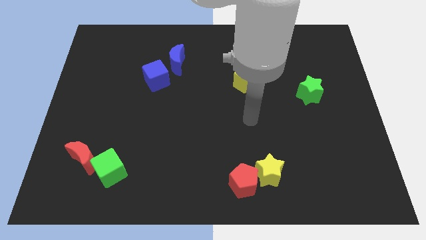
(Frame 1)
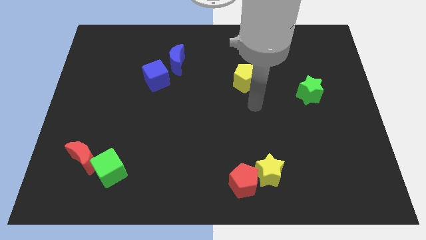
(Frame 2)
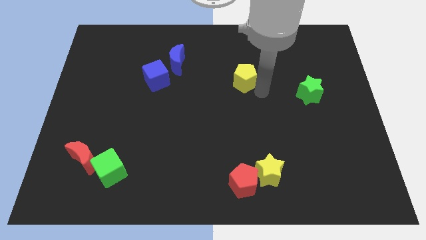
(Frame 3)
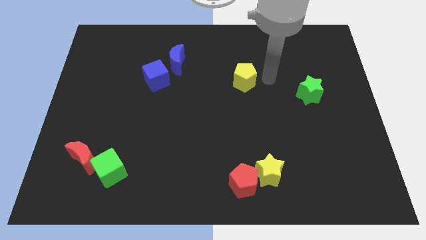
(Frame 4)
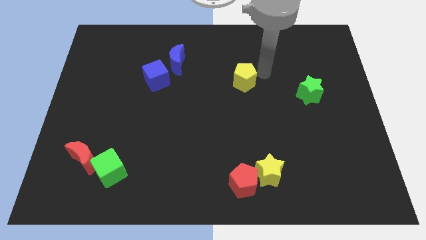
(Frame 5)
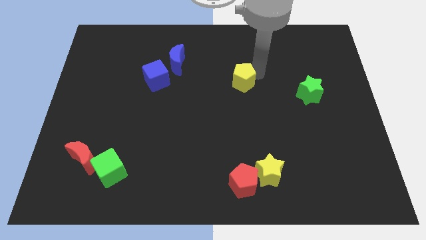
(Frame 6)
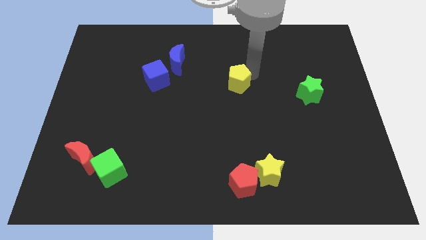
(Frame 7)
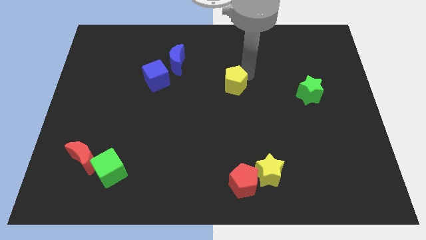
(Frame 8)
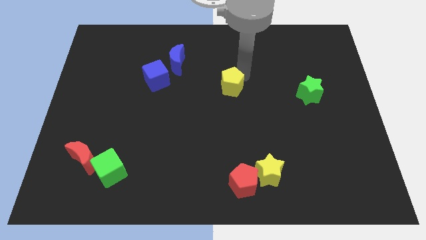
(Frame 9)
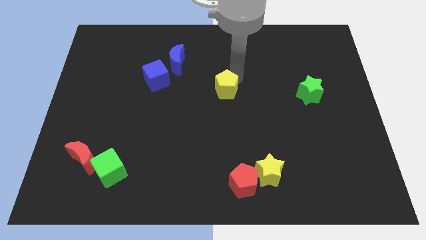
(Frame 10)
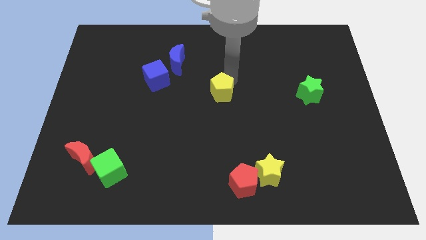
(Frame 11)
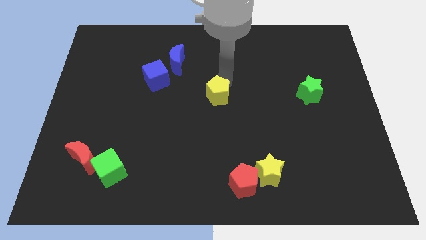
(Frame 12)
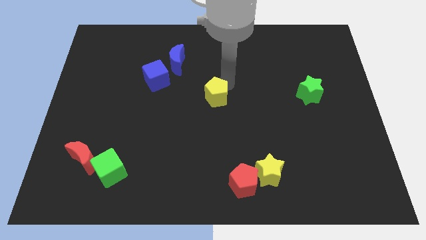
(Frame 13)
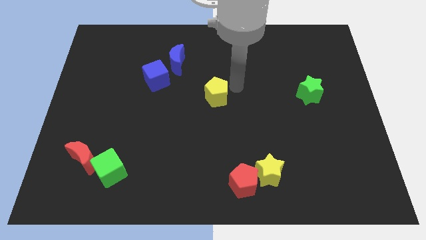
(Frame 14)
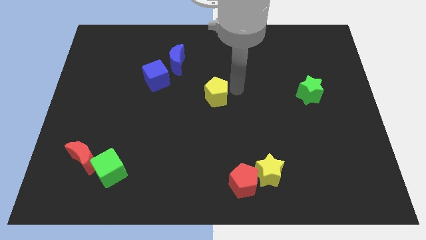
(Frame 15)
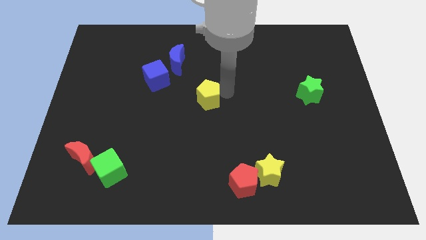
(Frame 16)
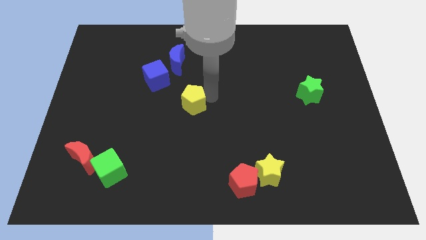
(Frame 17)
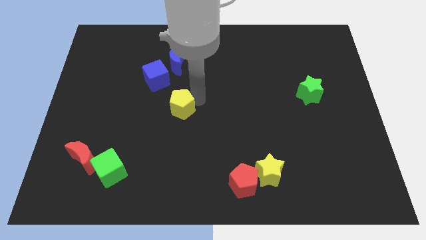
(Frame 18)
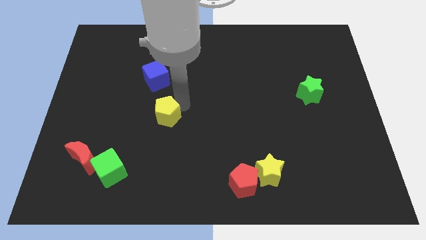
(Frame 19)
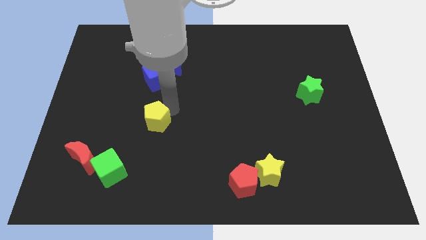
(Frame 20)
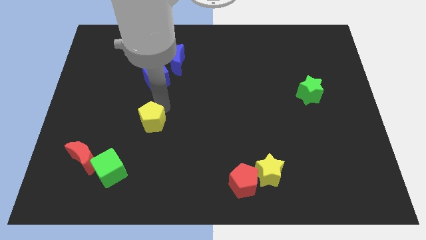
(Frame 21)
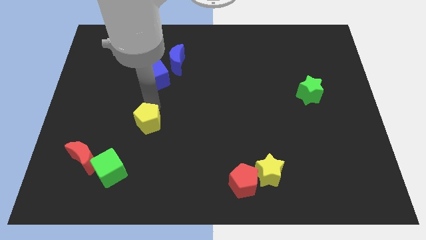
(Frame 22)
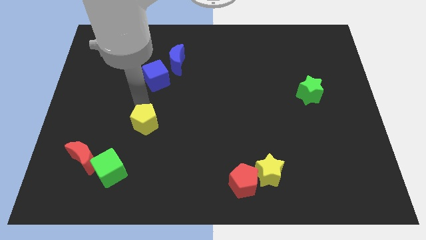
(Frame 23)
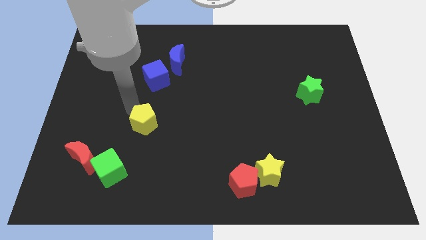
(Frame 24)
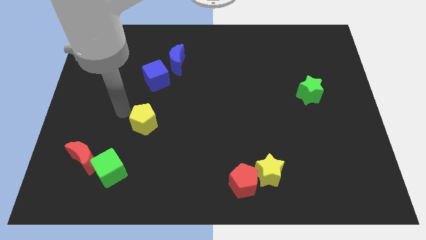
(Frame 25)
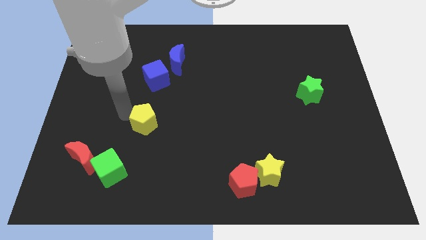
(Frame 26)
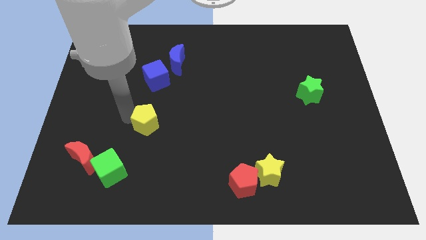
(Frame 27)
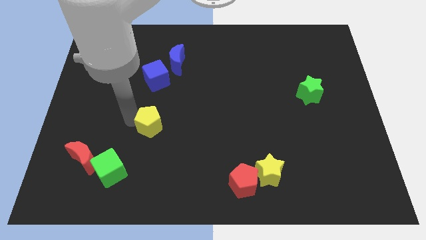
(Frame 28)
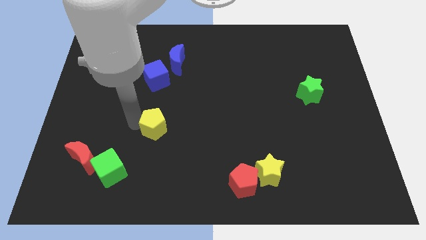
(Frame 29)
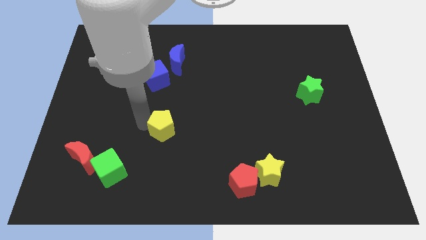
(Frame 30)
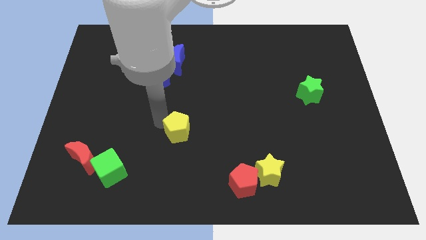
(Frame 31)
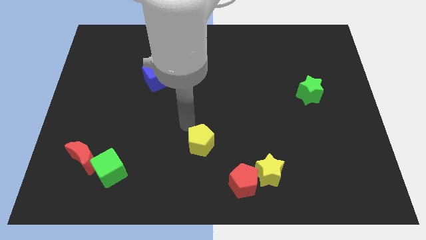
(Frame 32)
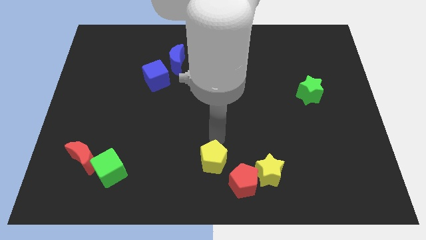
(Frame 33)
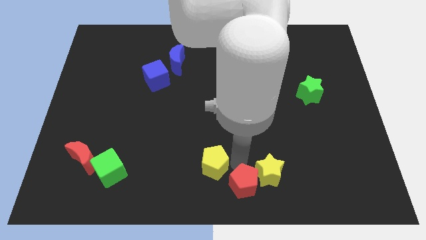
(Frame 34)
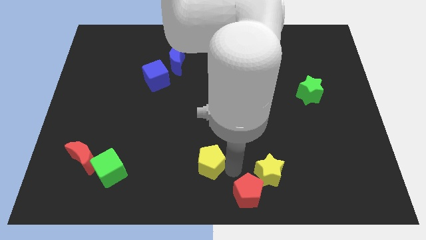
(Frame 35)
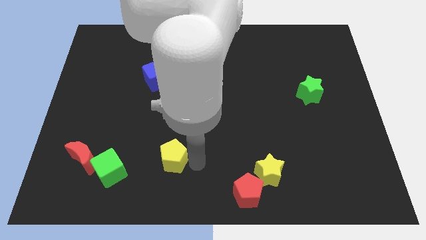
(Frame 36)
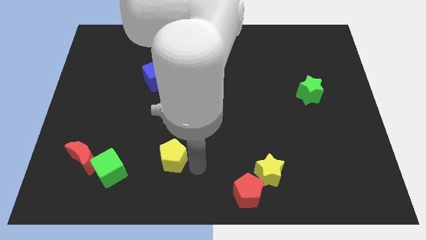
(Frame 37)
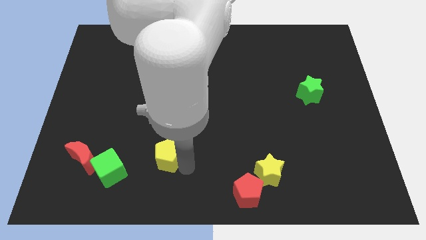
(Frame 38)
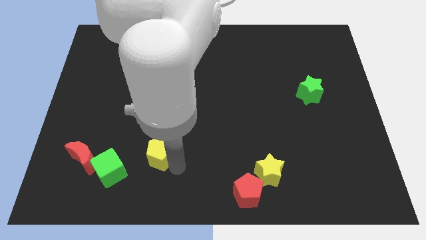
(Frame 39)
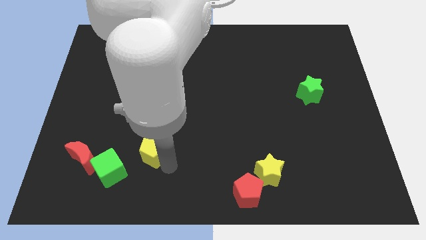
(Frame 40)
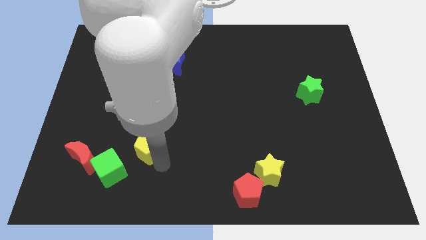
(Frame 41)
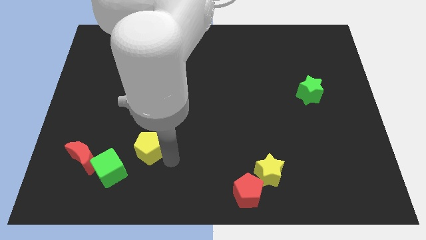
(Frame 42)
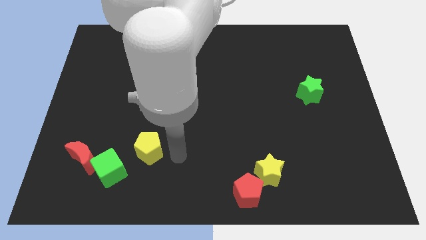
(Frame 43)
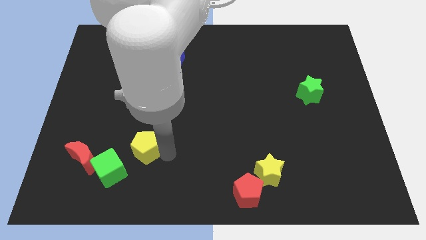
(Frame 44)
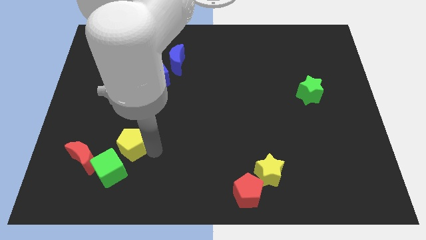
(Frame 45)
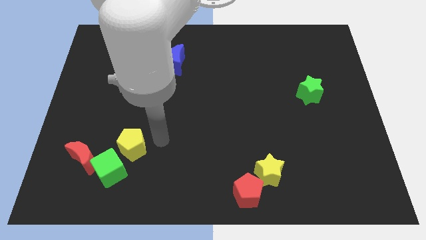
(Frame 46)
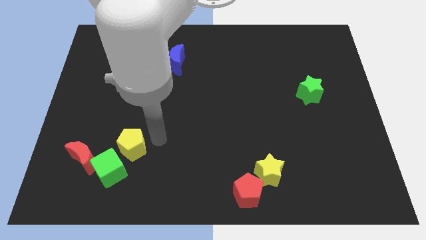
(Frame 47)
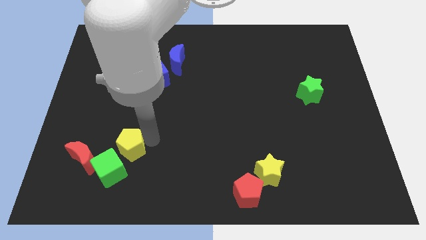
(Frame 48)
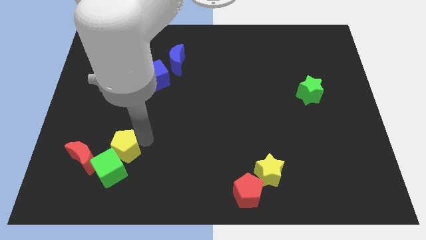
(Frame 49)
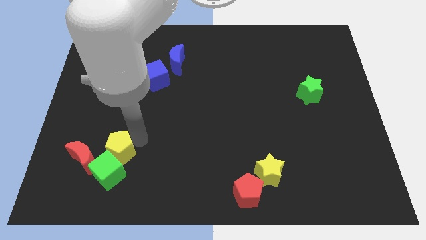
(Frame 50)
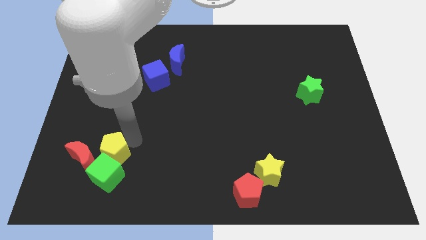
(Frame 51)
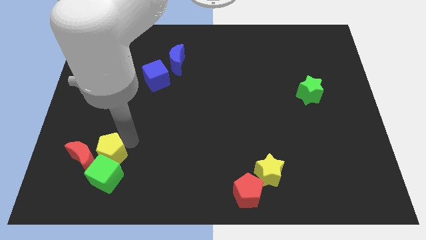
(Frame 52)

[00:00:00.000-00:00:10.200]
put the yellow pentagon towards the red moon

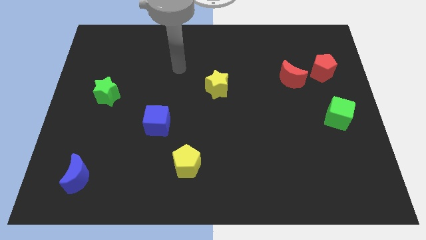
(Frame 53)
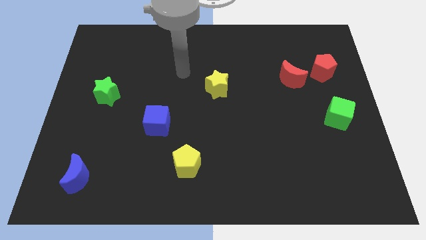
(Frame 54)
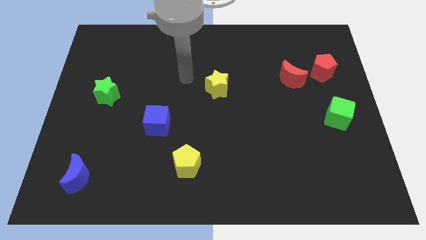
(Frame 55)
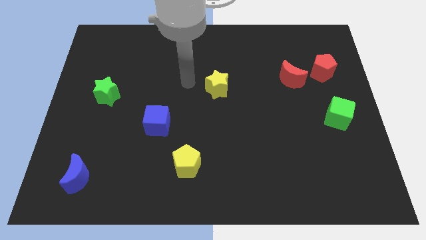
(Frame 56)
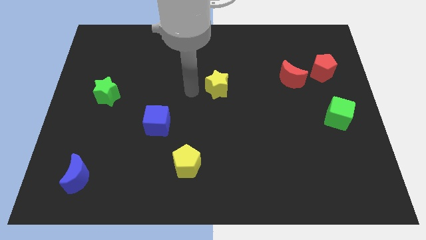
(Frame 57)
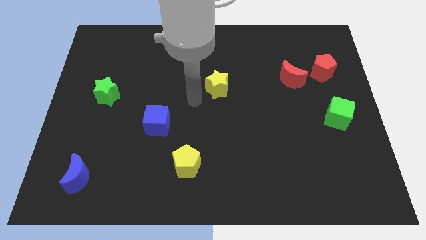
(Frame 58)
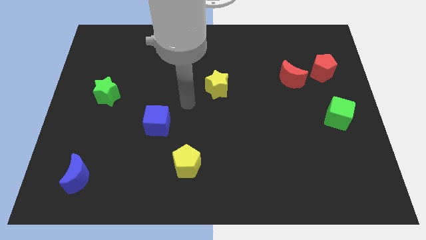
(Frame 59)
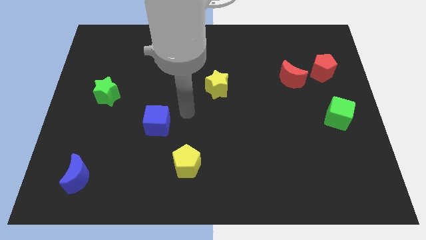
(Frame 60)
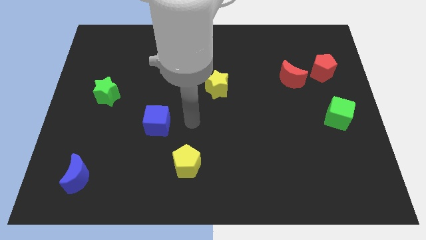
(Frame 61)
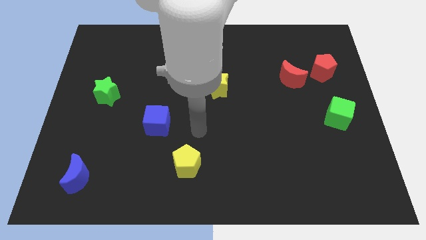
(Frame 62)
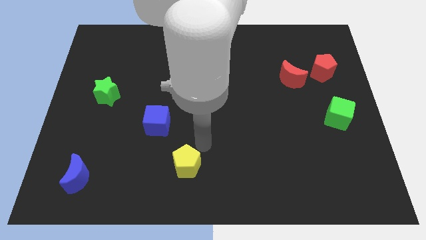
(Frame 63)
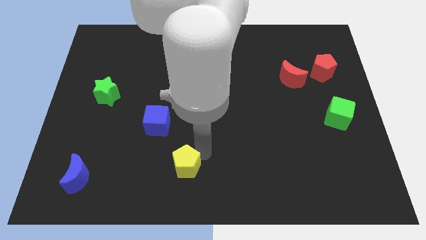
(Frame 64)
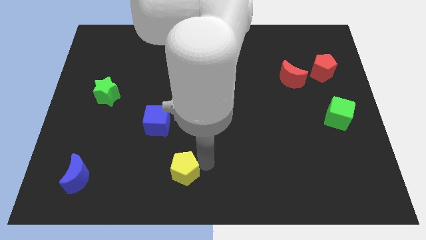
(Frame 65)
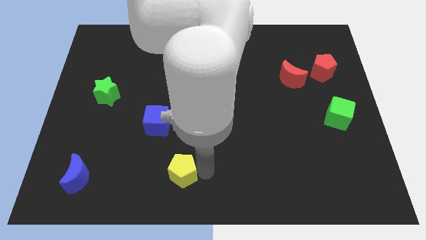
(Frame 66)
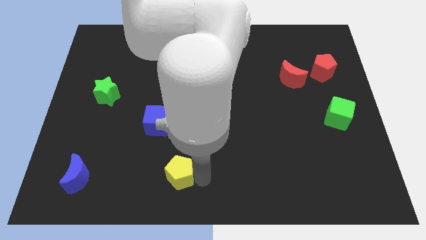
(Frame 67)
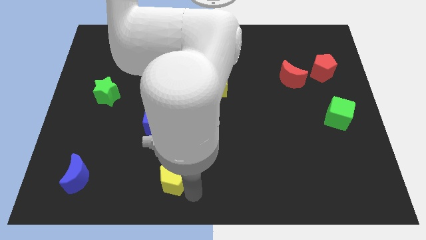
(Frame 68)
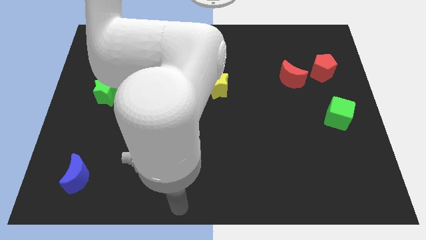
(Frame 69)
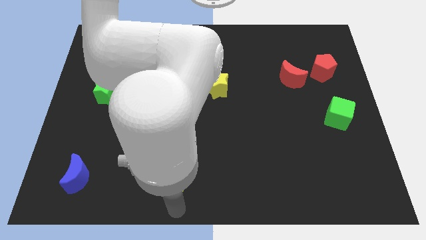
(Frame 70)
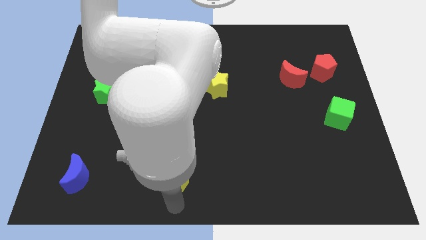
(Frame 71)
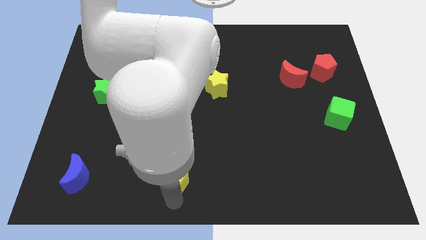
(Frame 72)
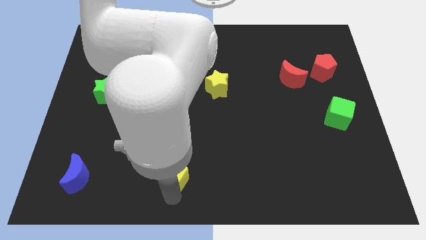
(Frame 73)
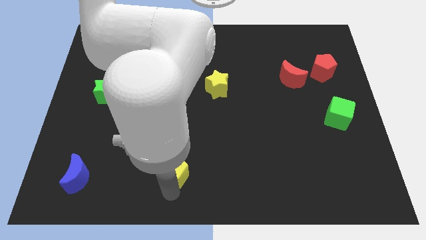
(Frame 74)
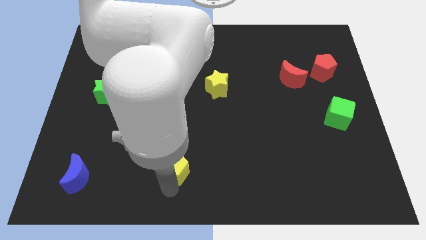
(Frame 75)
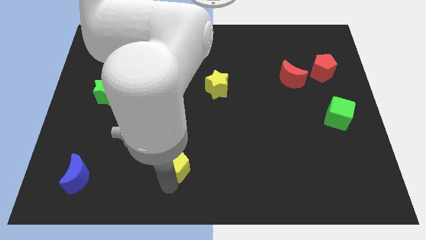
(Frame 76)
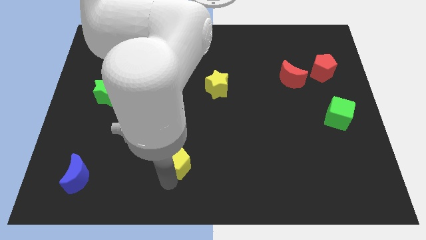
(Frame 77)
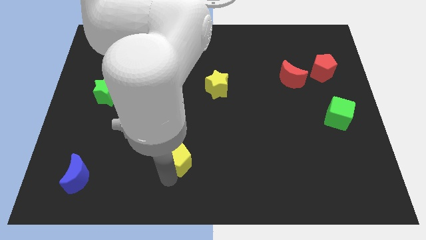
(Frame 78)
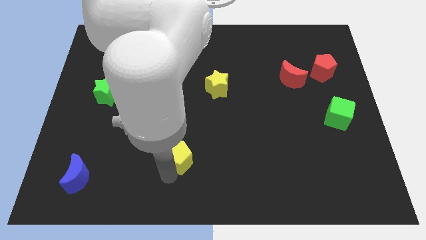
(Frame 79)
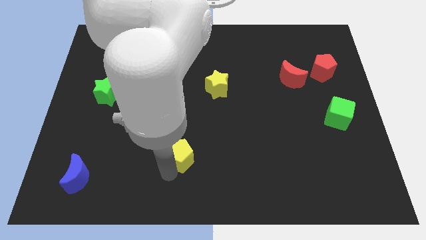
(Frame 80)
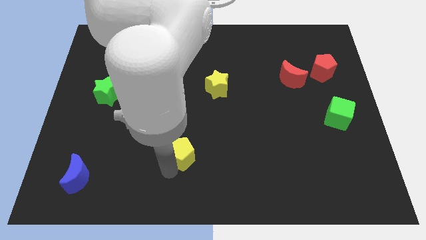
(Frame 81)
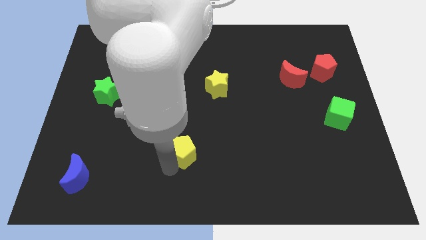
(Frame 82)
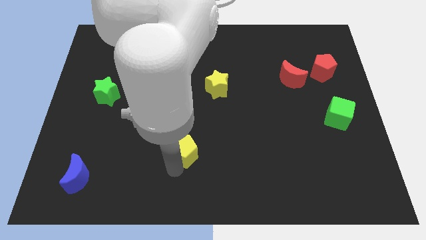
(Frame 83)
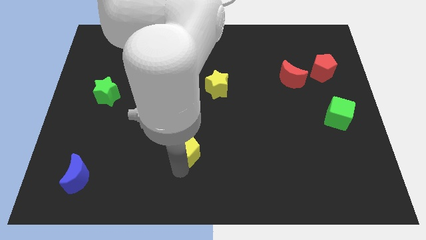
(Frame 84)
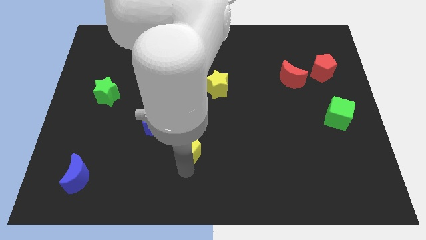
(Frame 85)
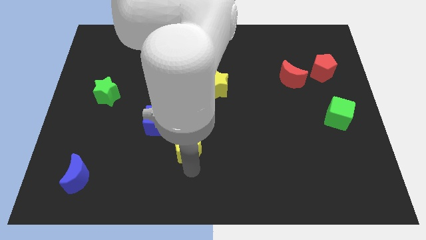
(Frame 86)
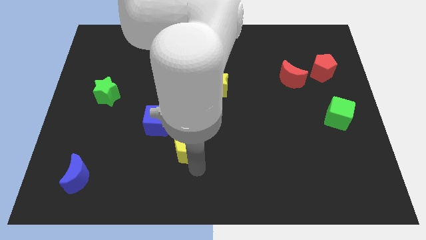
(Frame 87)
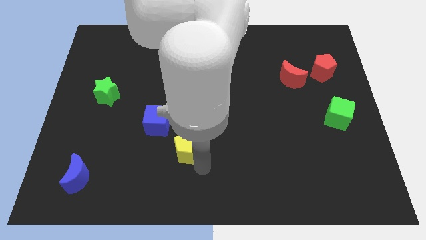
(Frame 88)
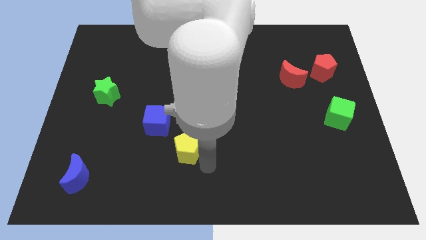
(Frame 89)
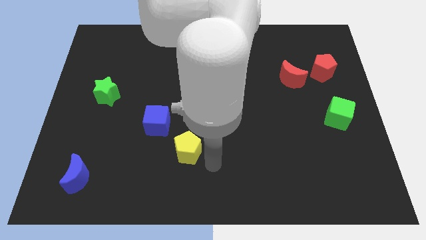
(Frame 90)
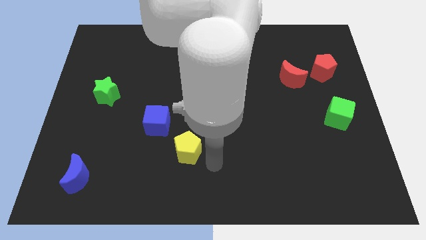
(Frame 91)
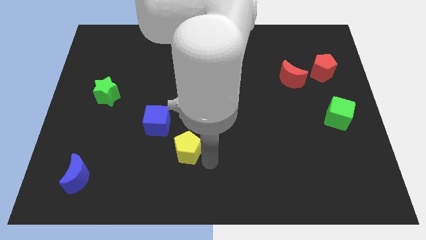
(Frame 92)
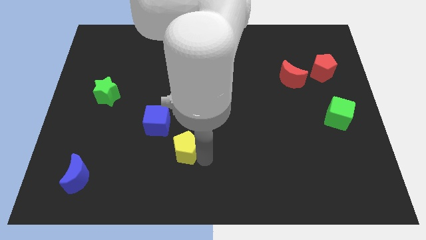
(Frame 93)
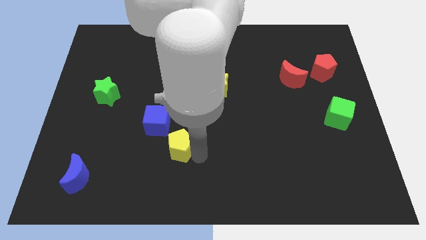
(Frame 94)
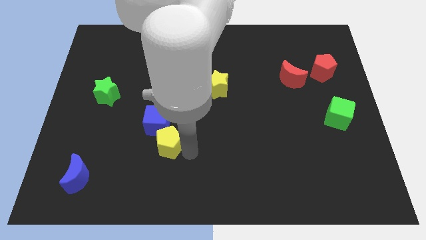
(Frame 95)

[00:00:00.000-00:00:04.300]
push the yellow pentagon close to the blue cube
